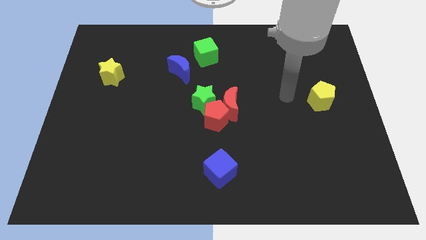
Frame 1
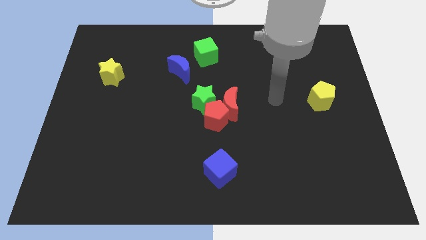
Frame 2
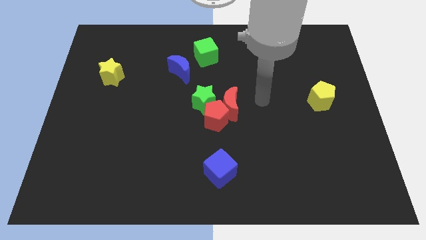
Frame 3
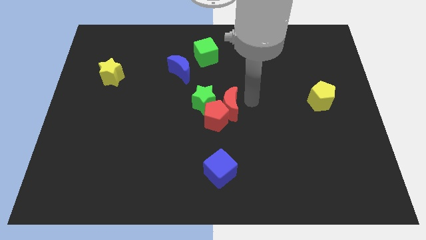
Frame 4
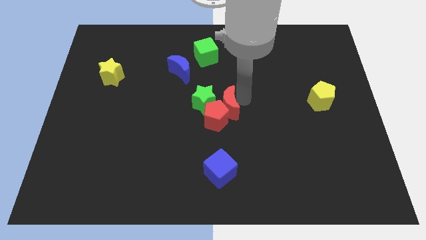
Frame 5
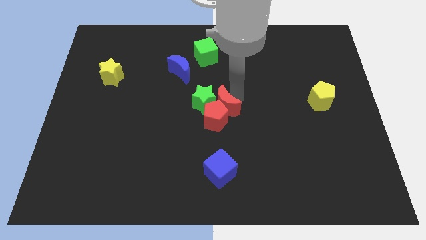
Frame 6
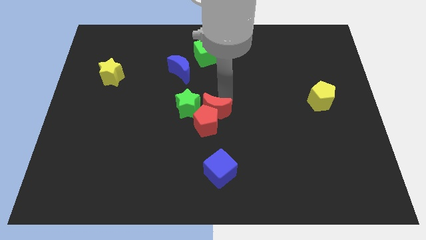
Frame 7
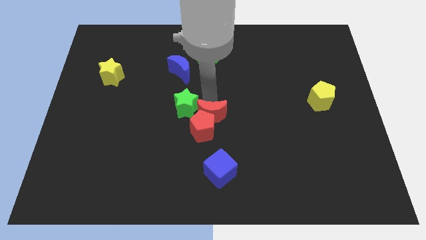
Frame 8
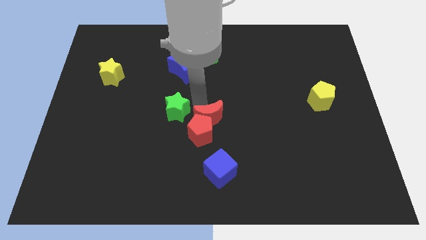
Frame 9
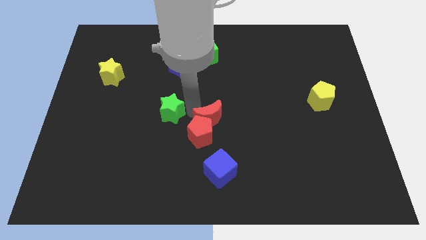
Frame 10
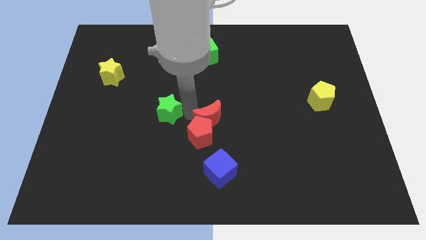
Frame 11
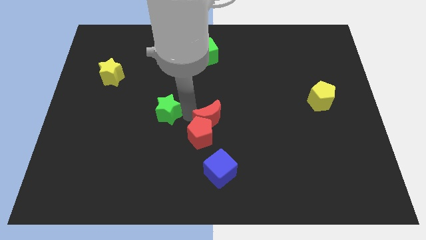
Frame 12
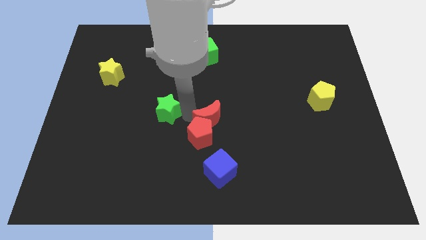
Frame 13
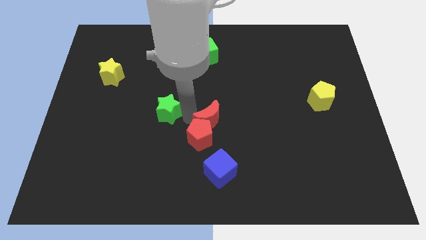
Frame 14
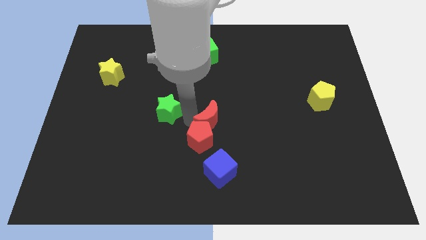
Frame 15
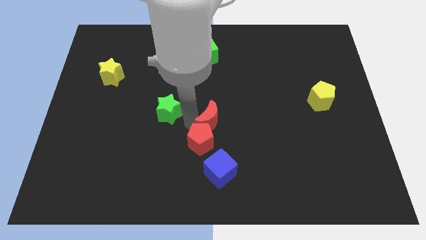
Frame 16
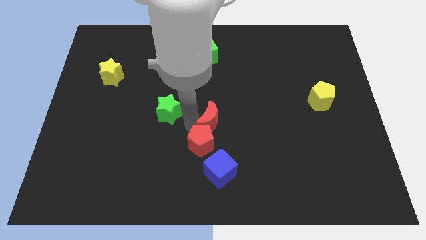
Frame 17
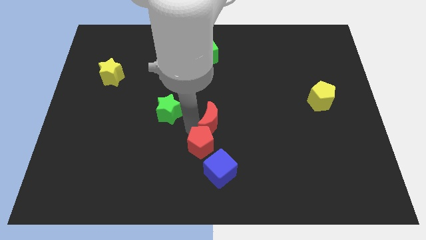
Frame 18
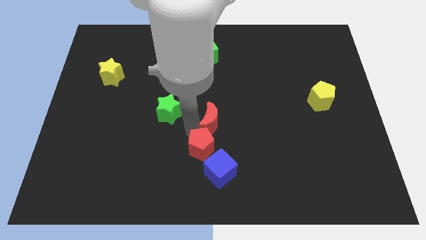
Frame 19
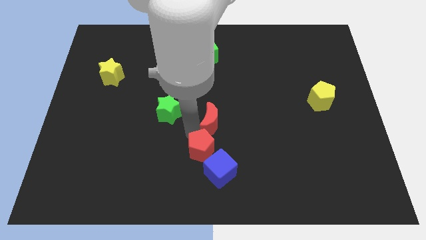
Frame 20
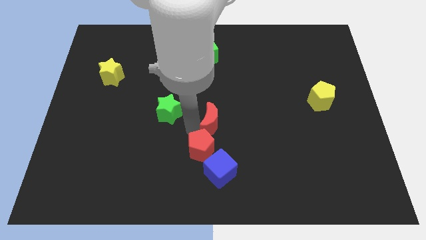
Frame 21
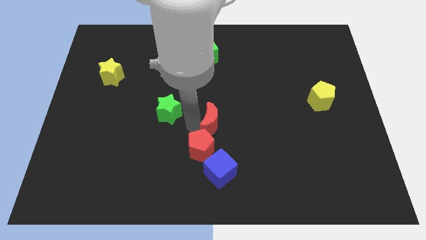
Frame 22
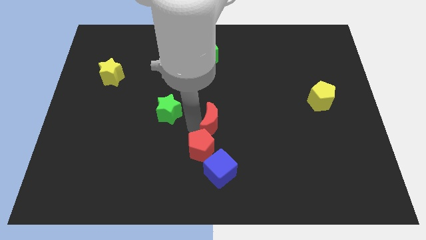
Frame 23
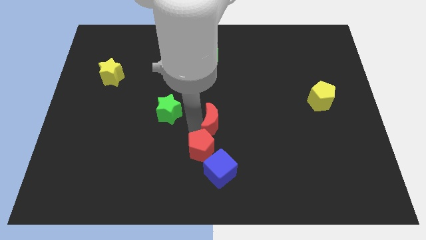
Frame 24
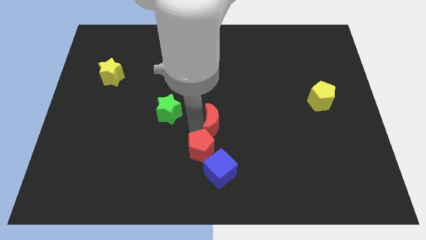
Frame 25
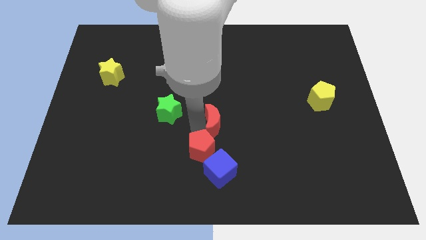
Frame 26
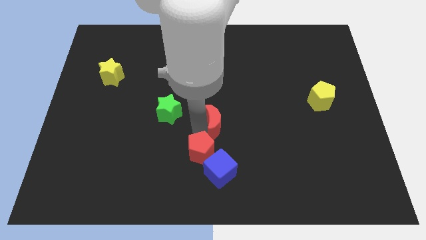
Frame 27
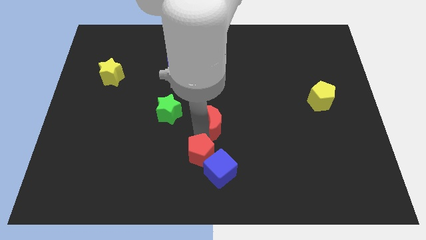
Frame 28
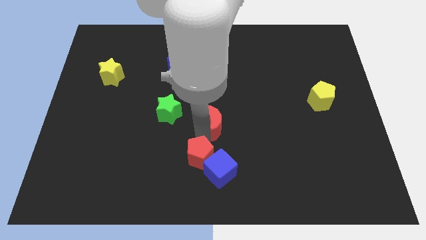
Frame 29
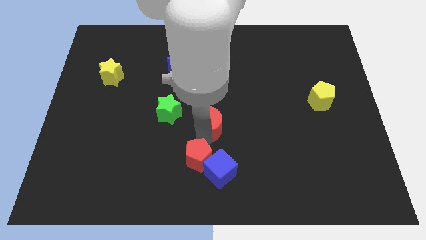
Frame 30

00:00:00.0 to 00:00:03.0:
pull the red pentagon apart from the red moon and green star

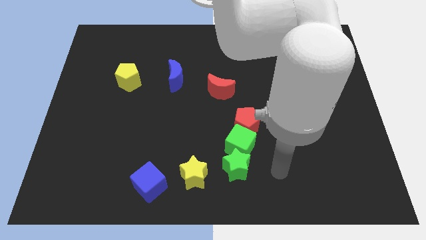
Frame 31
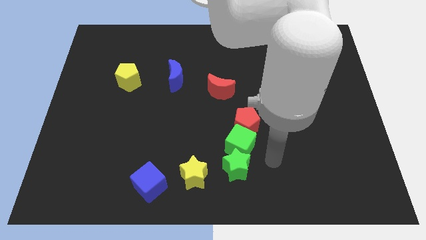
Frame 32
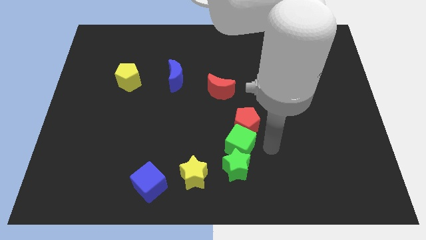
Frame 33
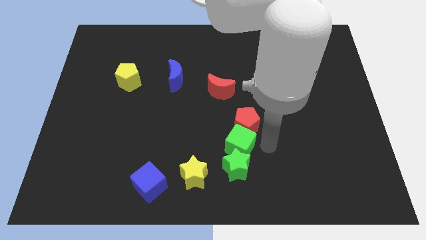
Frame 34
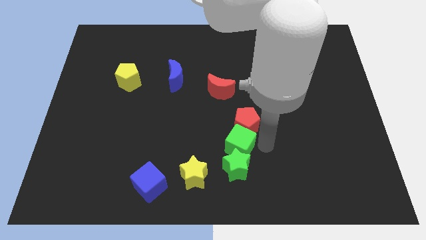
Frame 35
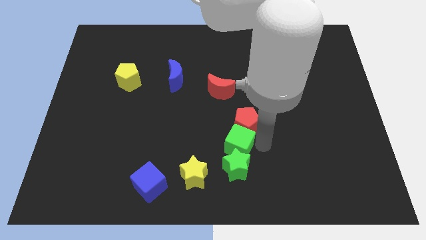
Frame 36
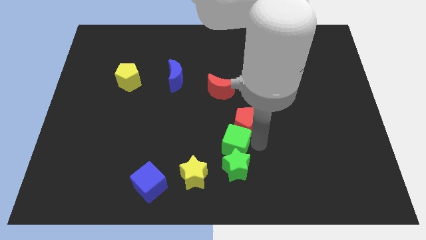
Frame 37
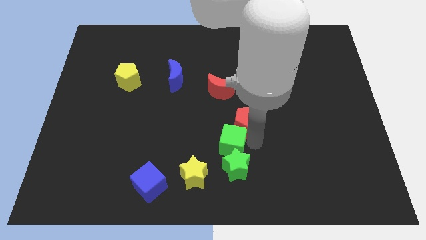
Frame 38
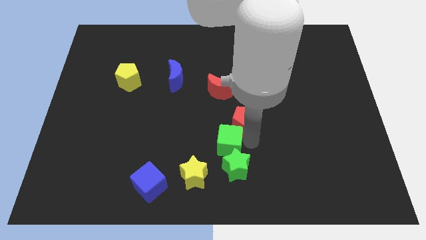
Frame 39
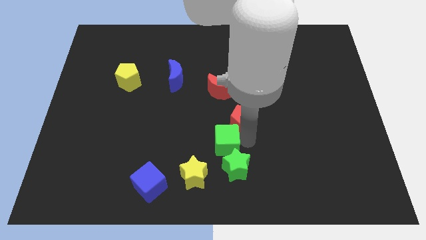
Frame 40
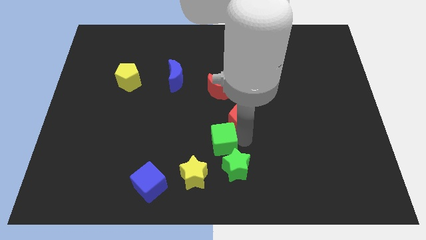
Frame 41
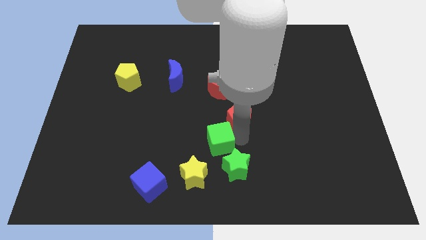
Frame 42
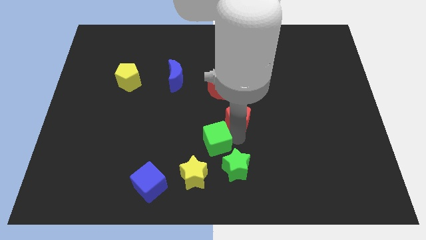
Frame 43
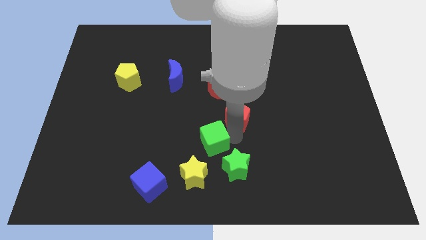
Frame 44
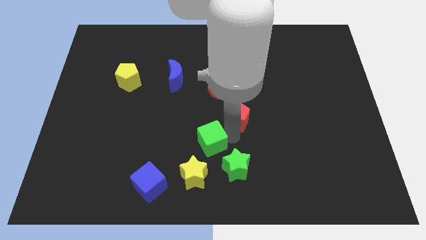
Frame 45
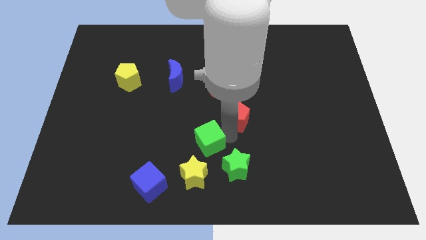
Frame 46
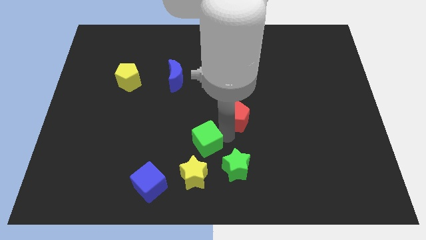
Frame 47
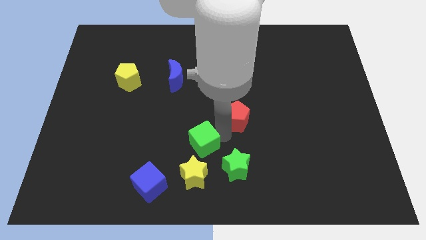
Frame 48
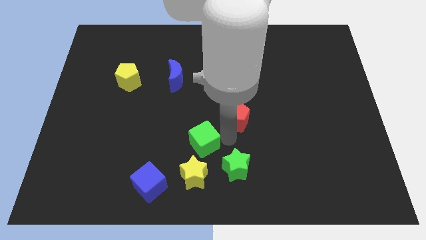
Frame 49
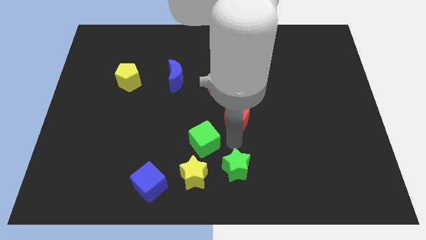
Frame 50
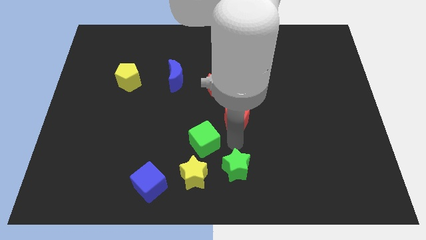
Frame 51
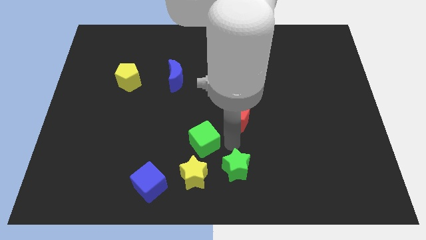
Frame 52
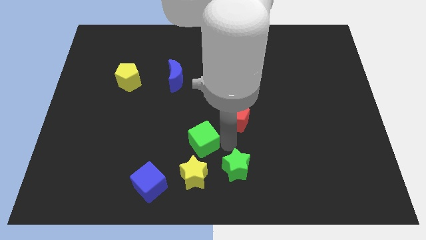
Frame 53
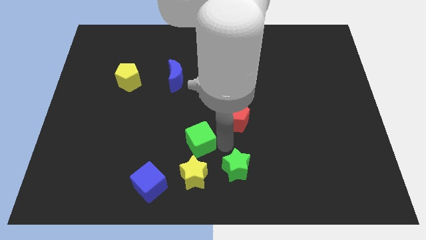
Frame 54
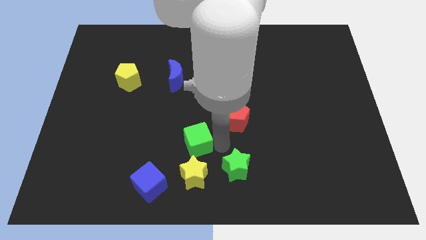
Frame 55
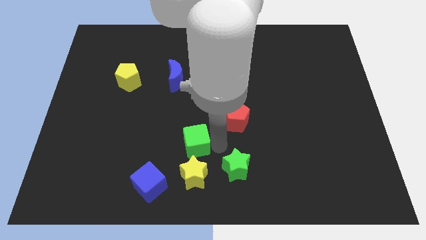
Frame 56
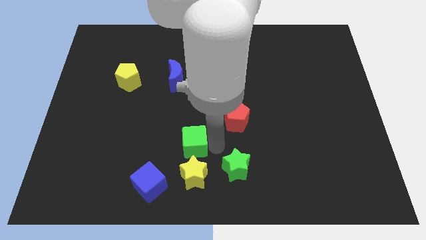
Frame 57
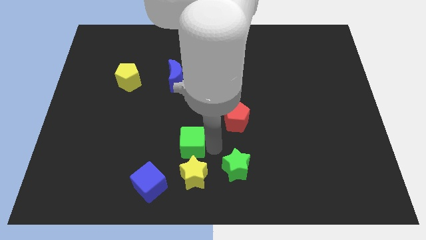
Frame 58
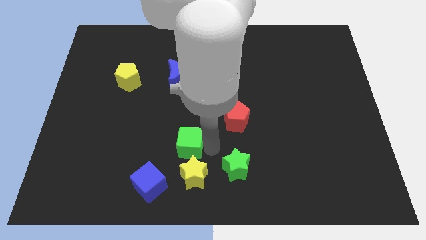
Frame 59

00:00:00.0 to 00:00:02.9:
separate the green cube from the green star and red pentagon

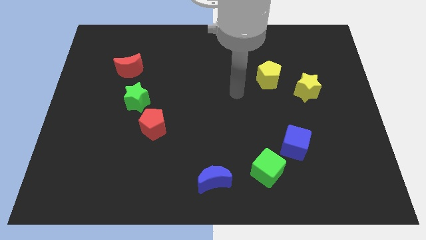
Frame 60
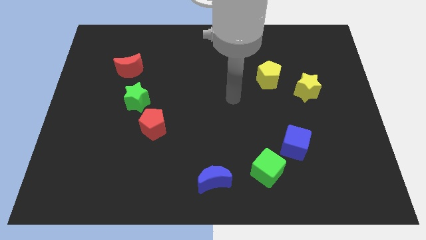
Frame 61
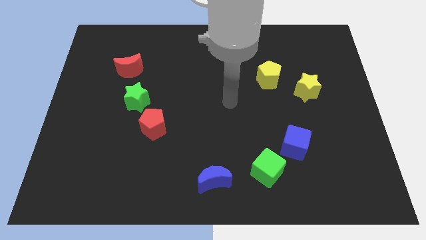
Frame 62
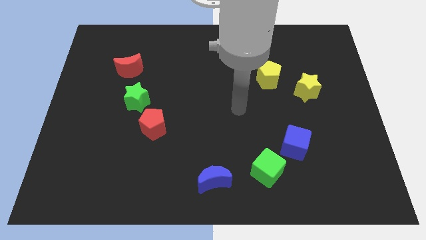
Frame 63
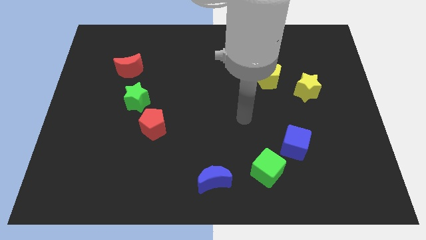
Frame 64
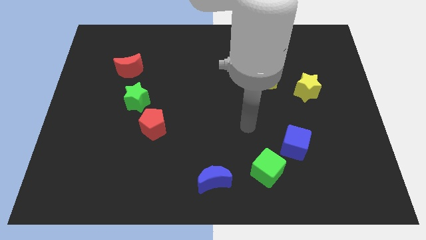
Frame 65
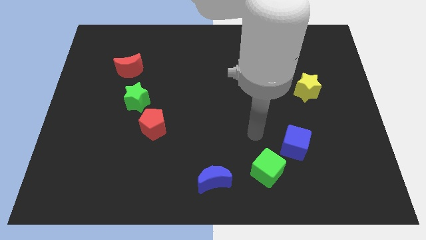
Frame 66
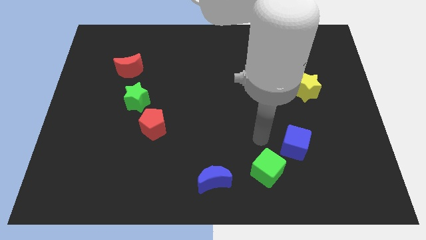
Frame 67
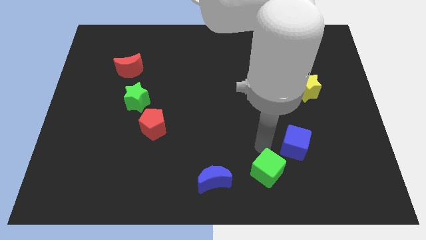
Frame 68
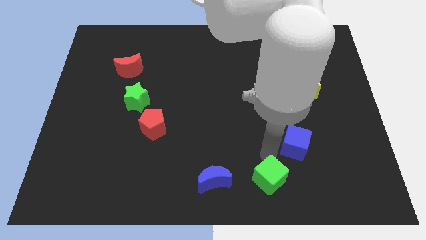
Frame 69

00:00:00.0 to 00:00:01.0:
separate the blue cube from the green cube

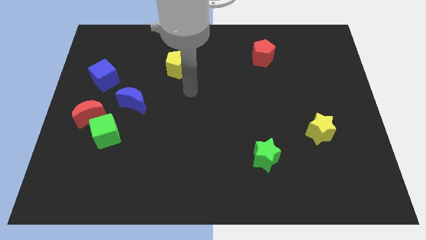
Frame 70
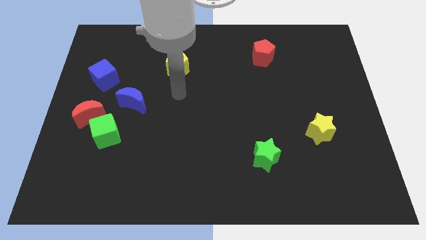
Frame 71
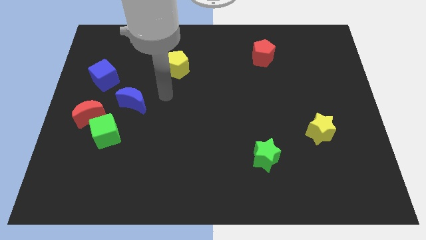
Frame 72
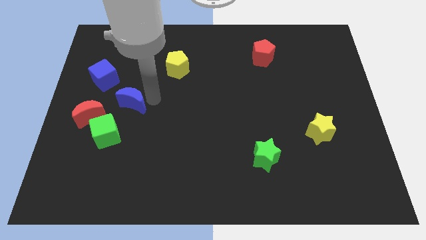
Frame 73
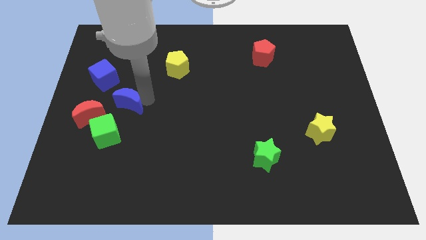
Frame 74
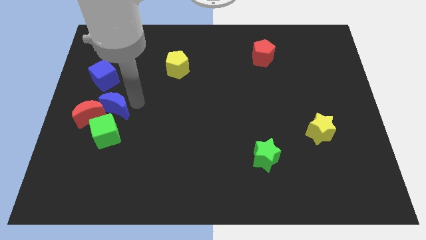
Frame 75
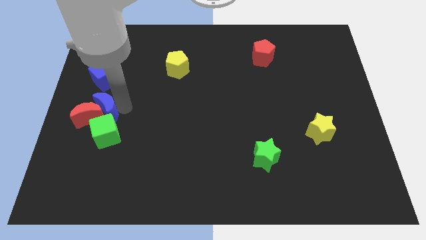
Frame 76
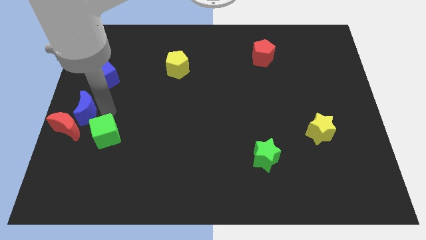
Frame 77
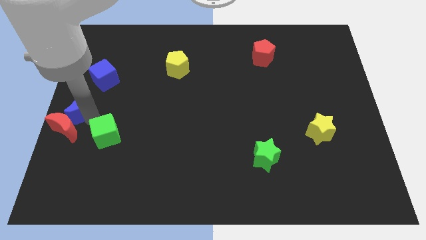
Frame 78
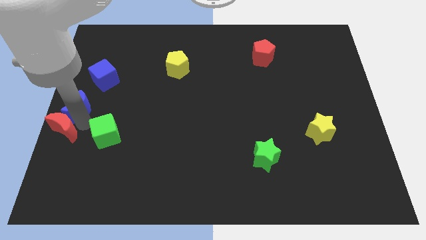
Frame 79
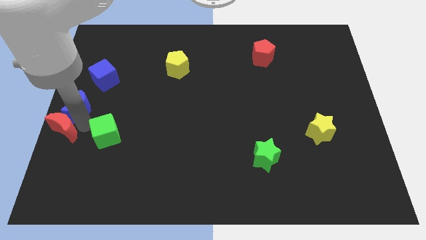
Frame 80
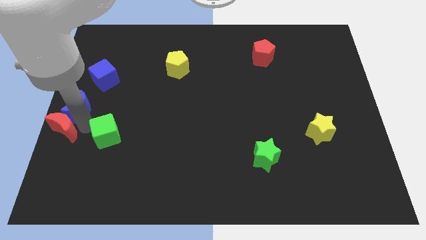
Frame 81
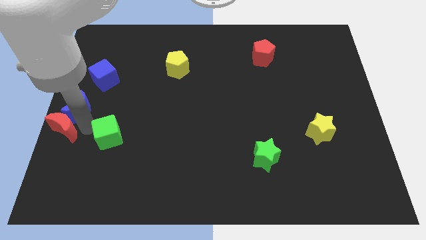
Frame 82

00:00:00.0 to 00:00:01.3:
separate the green cube from the red moon and blue moon

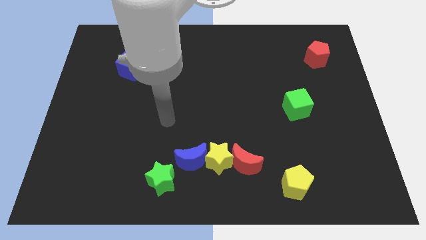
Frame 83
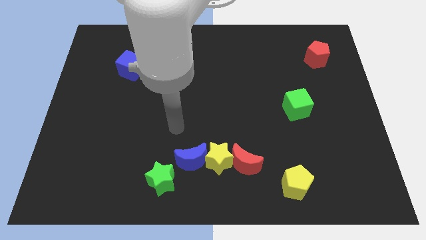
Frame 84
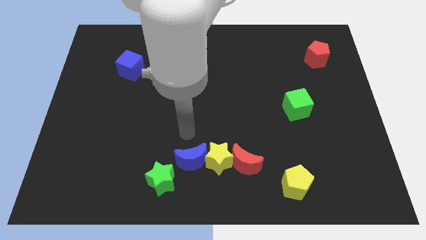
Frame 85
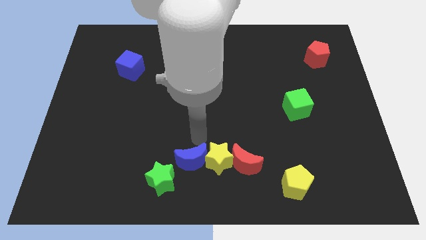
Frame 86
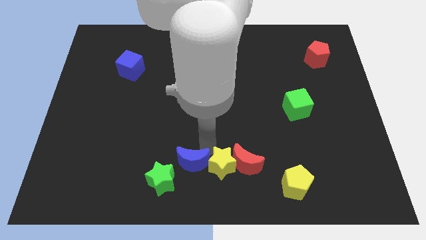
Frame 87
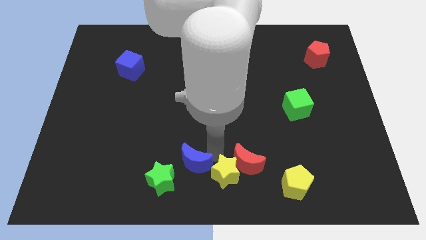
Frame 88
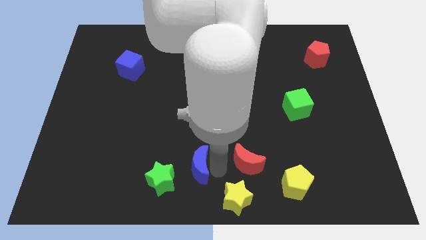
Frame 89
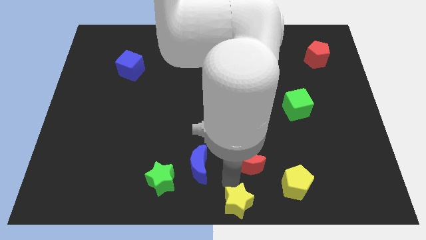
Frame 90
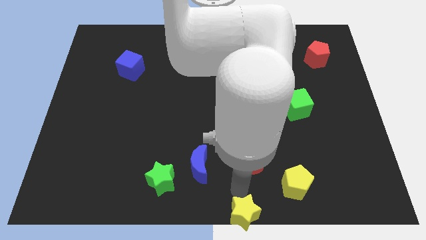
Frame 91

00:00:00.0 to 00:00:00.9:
move the red moon away from the yellow star

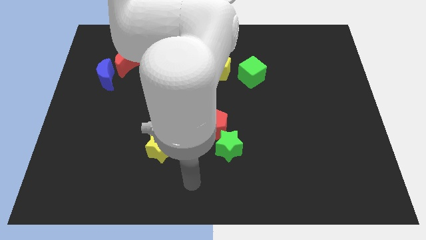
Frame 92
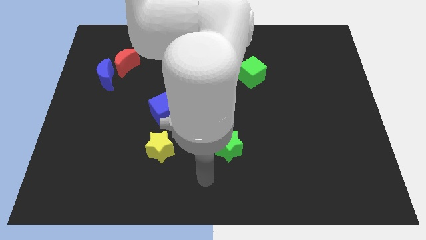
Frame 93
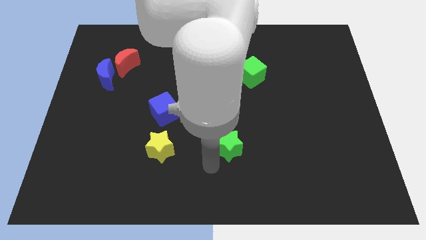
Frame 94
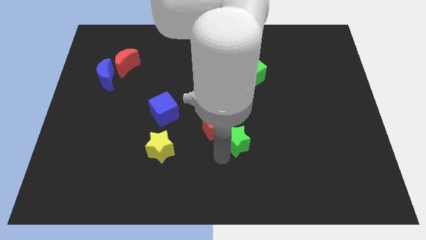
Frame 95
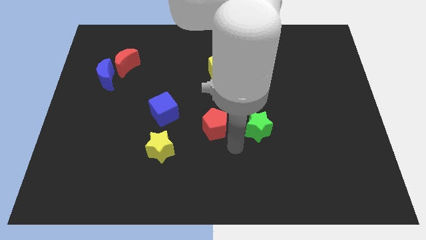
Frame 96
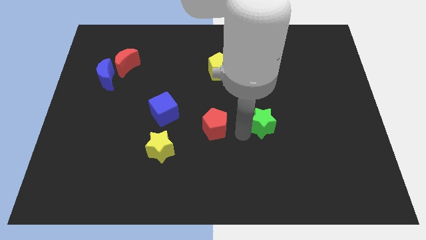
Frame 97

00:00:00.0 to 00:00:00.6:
move the red pentagon away from the green star
